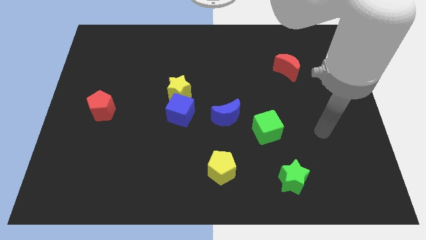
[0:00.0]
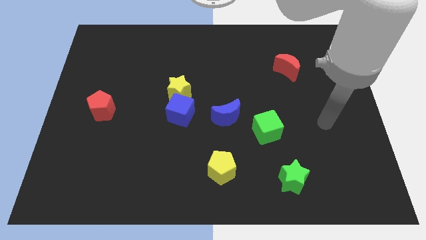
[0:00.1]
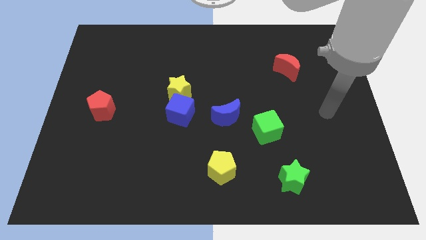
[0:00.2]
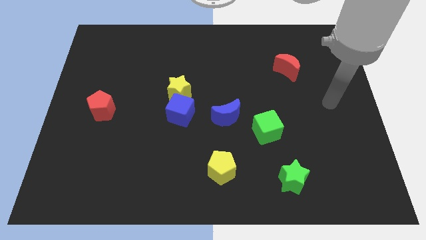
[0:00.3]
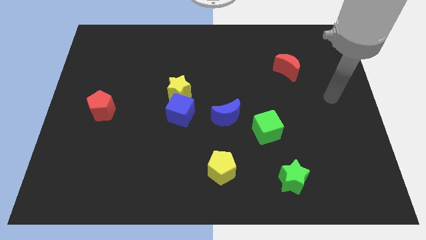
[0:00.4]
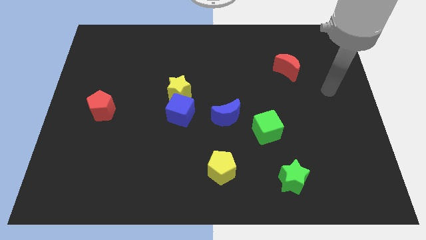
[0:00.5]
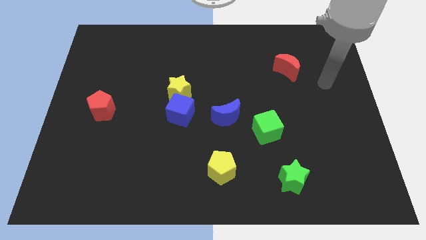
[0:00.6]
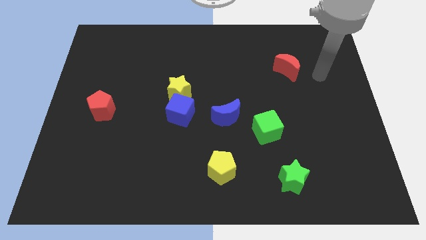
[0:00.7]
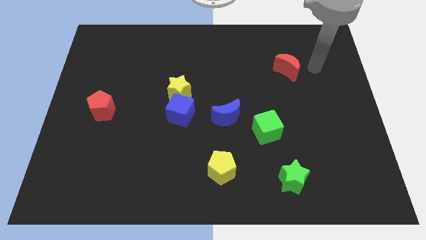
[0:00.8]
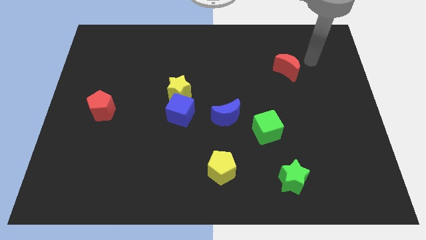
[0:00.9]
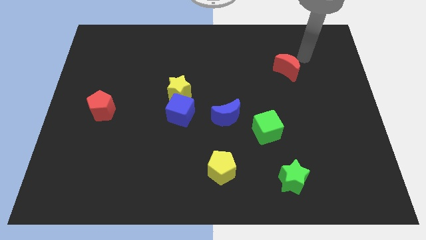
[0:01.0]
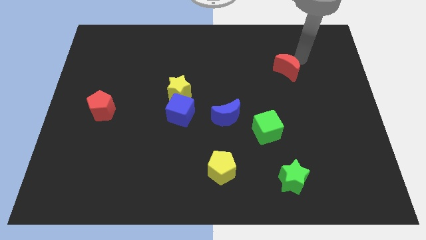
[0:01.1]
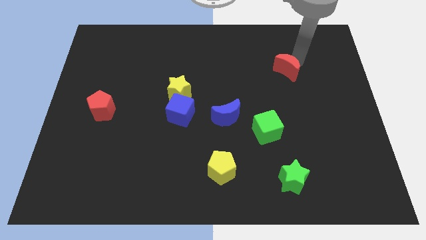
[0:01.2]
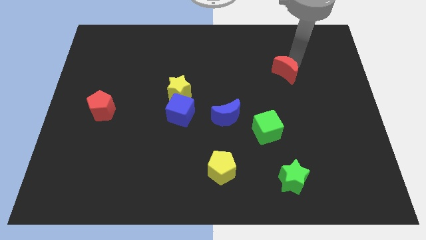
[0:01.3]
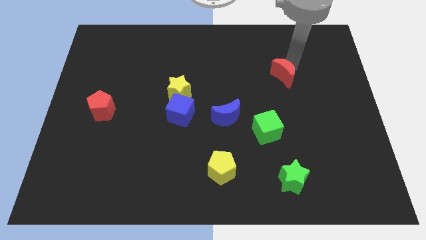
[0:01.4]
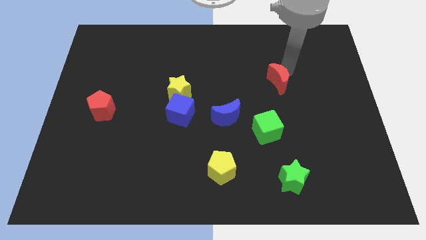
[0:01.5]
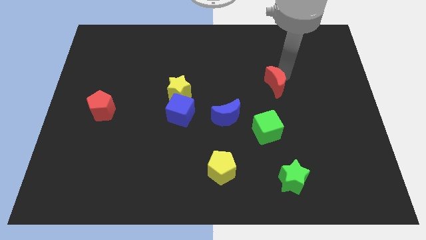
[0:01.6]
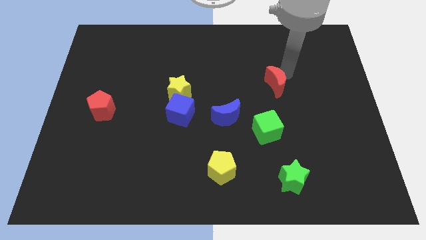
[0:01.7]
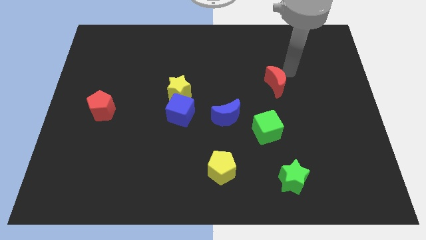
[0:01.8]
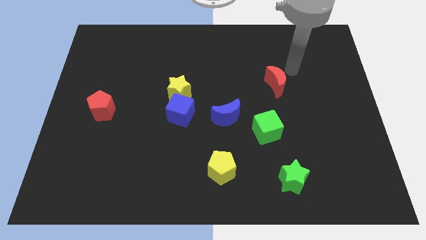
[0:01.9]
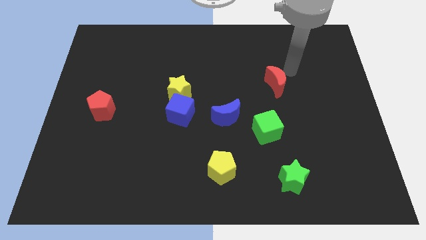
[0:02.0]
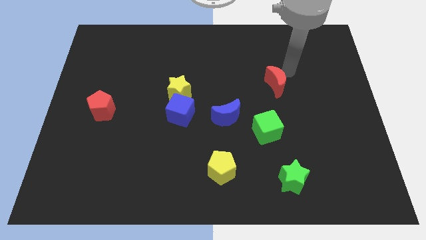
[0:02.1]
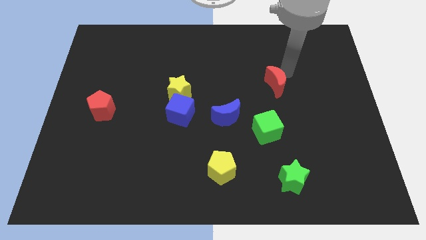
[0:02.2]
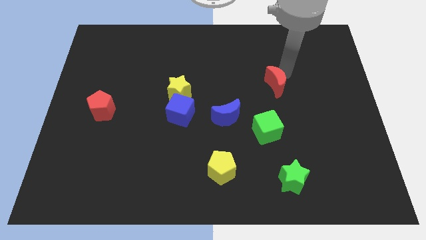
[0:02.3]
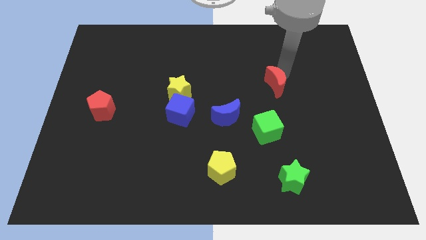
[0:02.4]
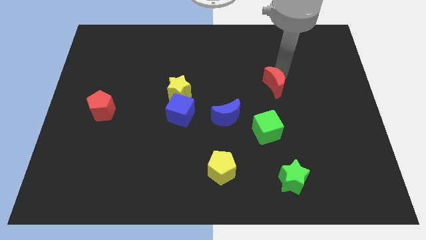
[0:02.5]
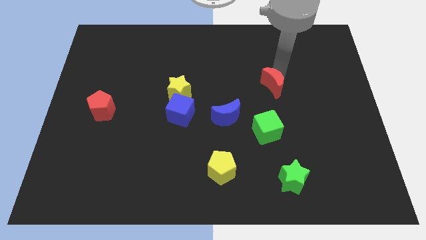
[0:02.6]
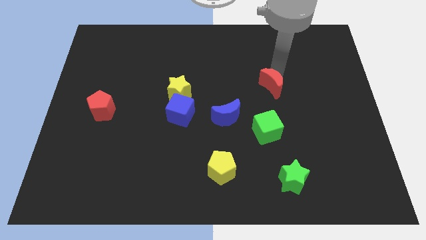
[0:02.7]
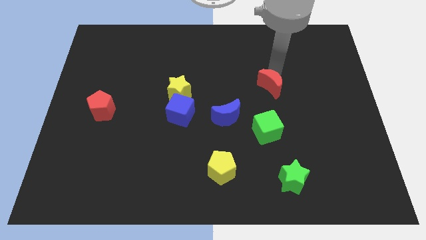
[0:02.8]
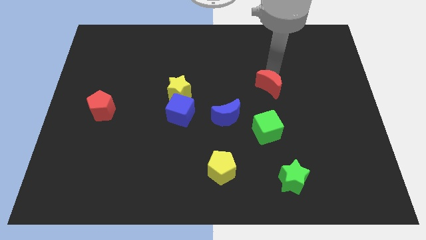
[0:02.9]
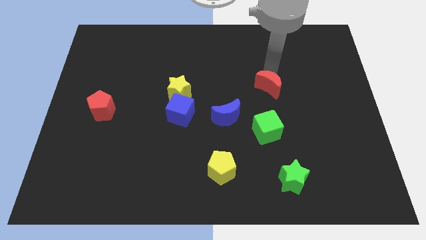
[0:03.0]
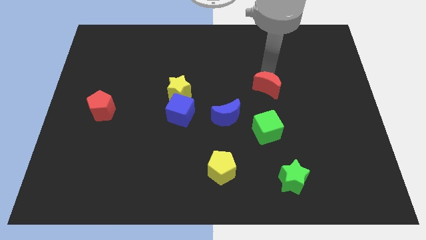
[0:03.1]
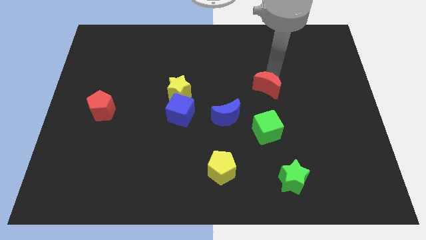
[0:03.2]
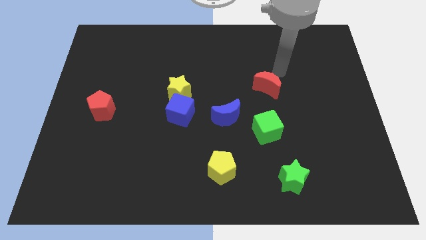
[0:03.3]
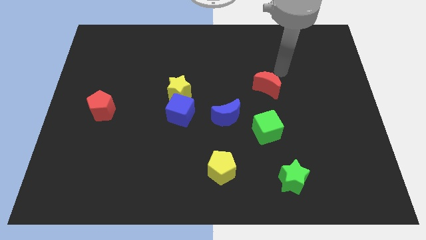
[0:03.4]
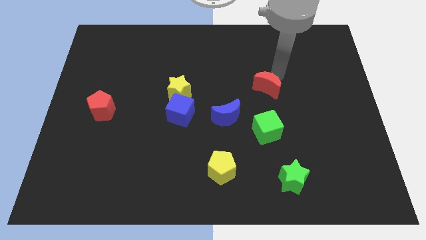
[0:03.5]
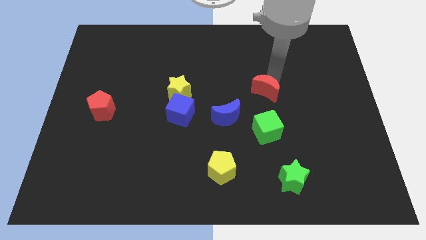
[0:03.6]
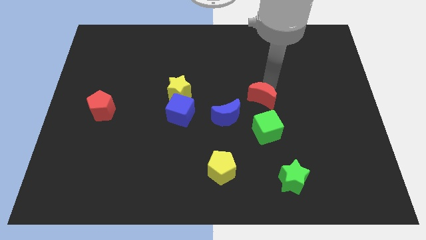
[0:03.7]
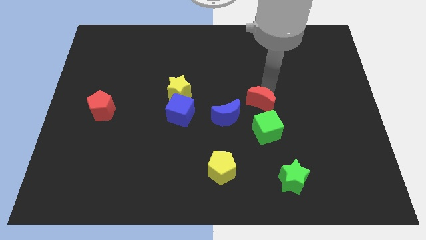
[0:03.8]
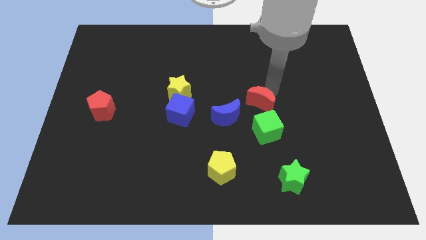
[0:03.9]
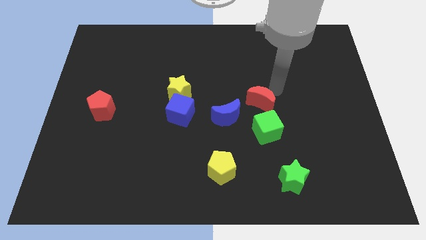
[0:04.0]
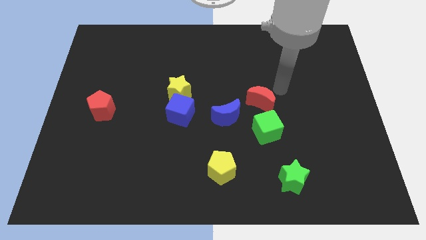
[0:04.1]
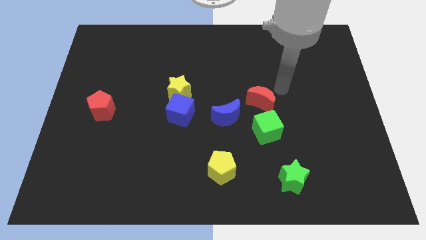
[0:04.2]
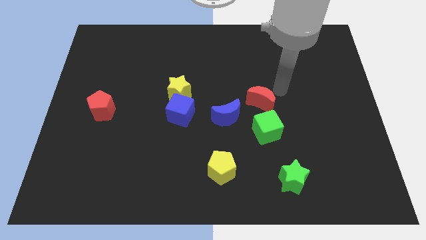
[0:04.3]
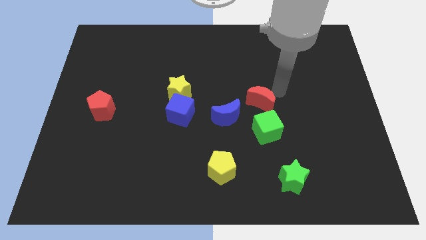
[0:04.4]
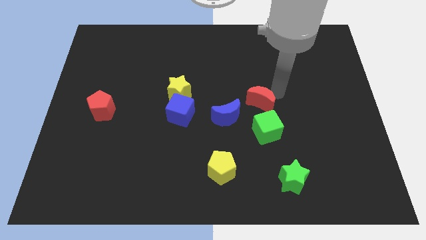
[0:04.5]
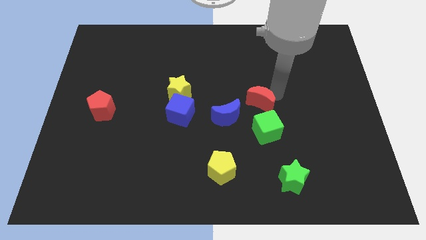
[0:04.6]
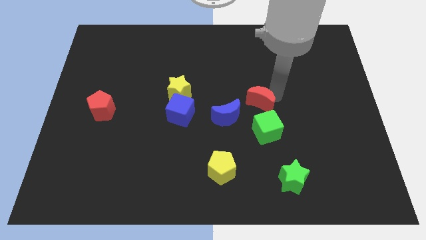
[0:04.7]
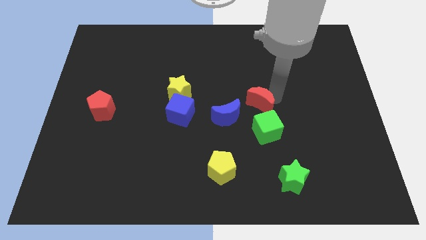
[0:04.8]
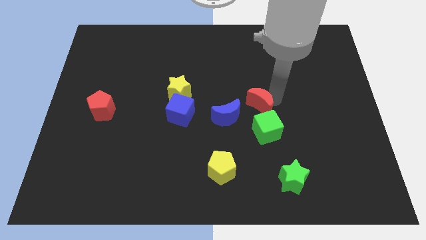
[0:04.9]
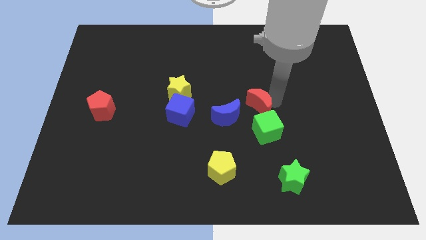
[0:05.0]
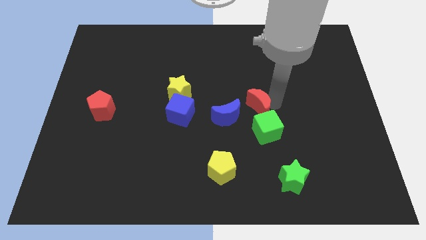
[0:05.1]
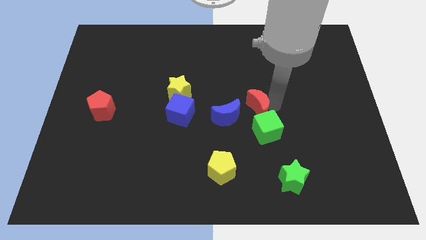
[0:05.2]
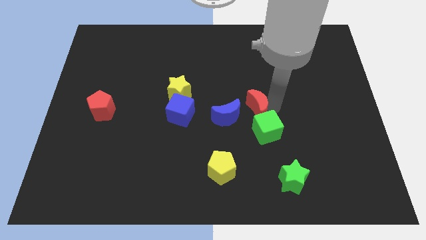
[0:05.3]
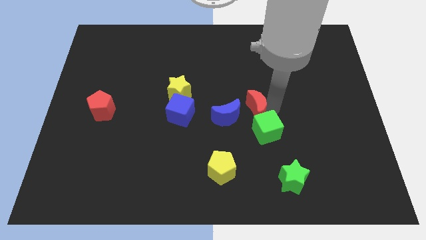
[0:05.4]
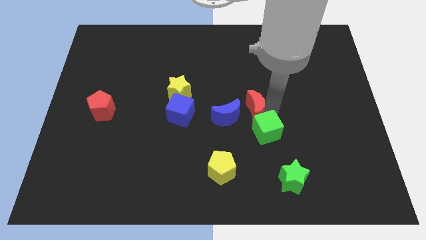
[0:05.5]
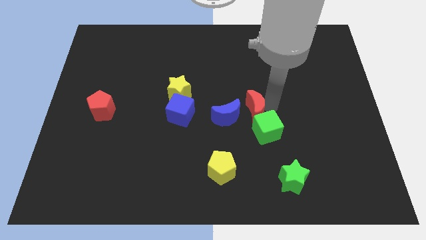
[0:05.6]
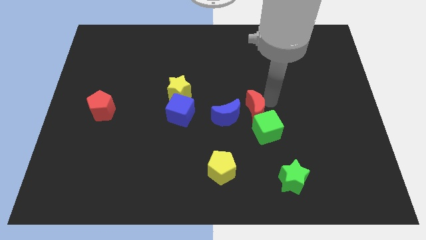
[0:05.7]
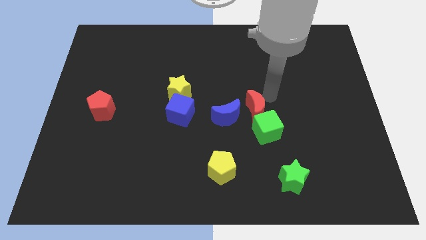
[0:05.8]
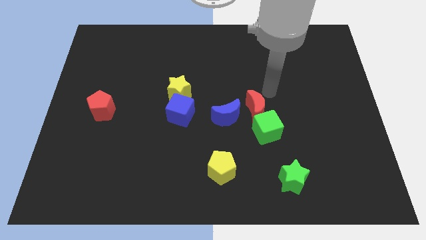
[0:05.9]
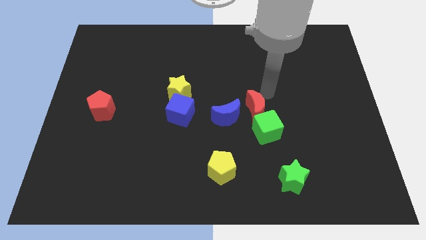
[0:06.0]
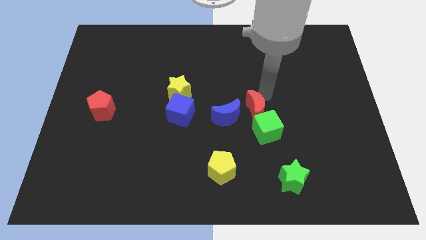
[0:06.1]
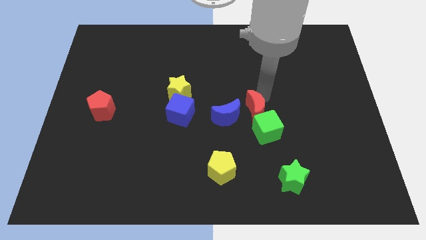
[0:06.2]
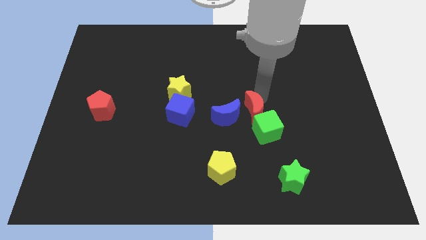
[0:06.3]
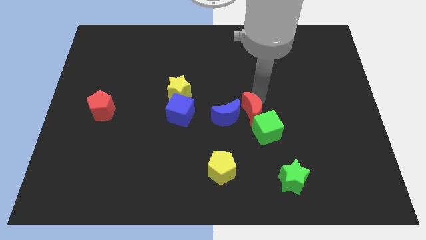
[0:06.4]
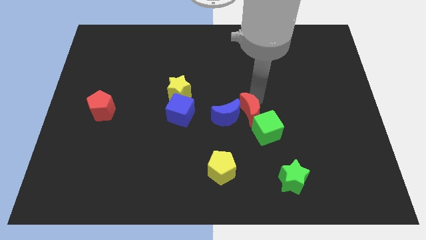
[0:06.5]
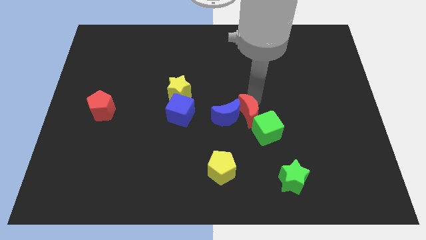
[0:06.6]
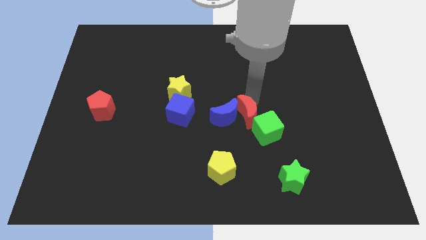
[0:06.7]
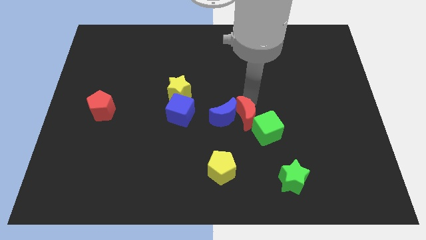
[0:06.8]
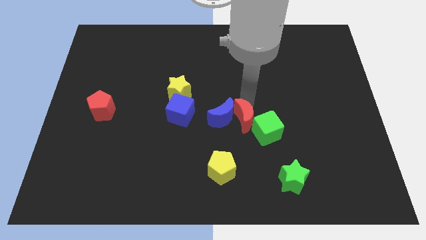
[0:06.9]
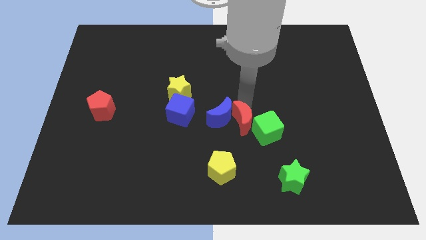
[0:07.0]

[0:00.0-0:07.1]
push the red moon downwards and to the left

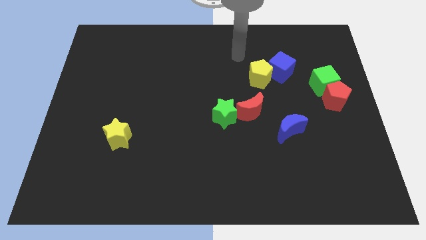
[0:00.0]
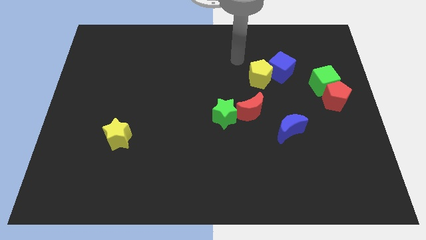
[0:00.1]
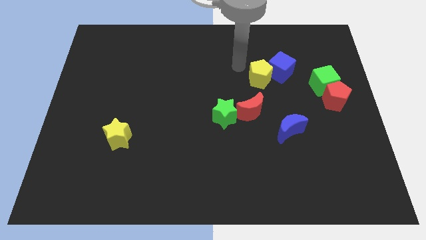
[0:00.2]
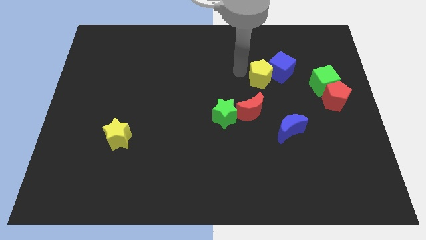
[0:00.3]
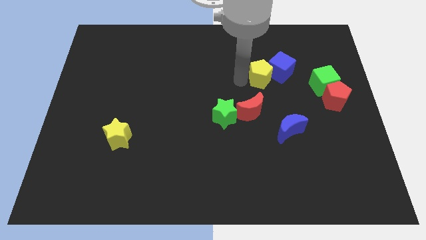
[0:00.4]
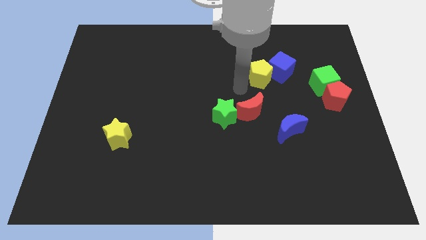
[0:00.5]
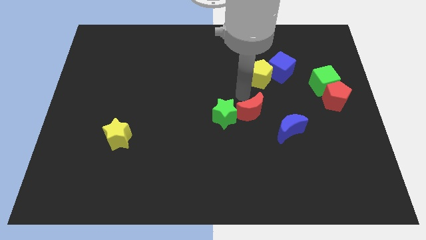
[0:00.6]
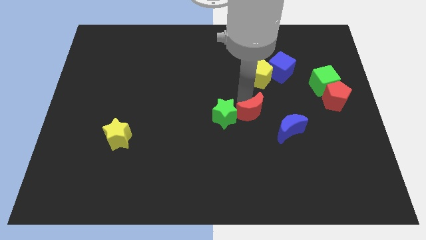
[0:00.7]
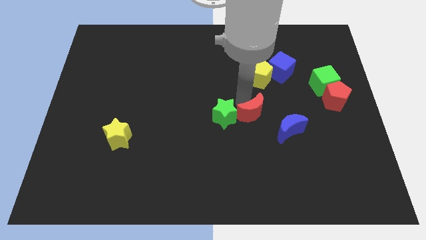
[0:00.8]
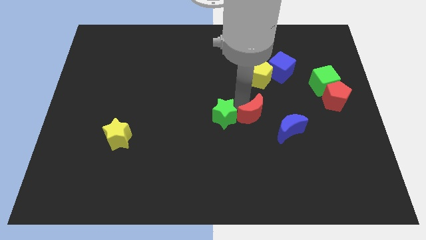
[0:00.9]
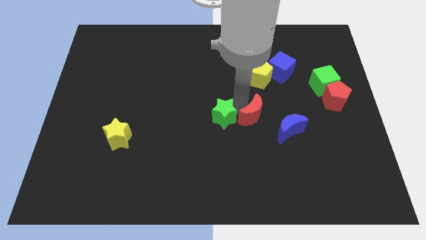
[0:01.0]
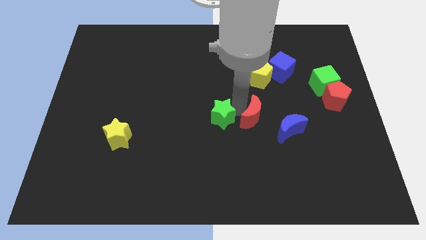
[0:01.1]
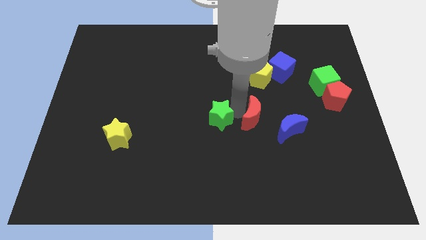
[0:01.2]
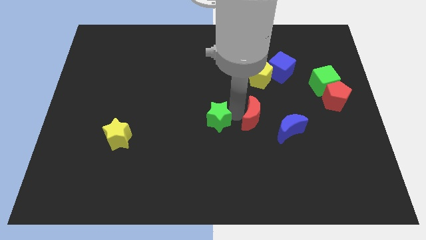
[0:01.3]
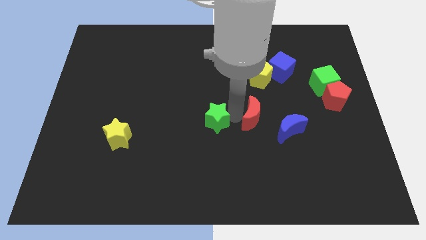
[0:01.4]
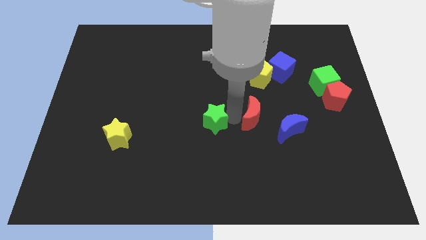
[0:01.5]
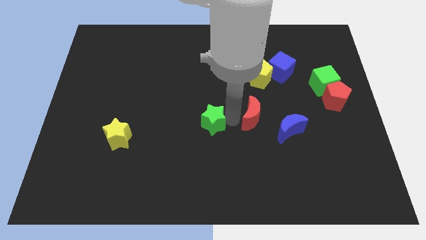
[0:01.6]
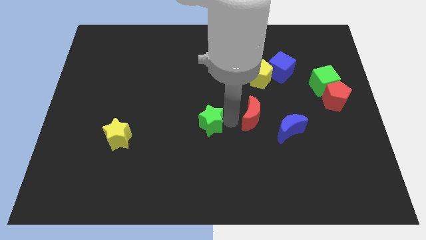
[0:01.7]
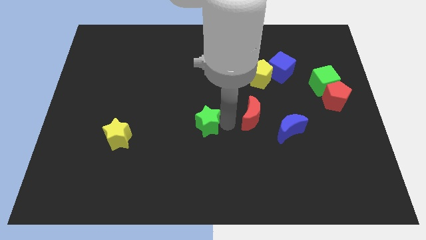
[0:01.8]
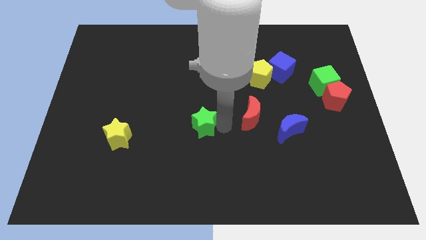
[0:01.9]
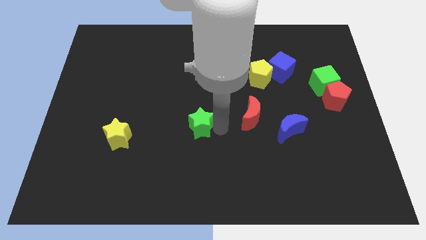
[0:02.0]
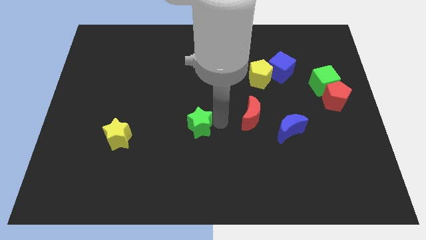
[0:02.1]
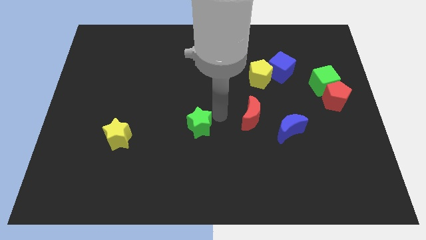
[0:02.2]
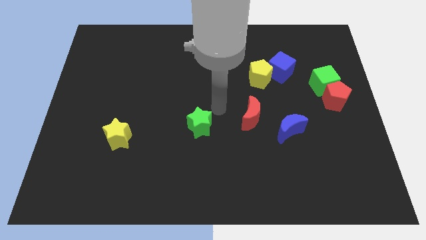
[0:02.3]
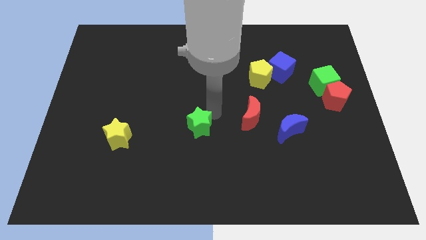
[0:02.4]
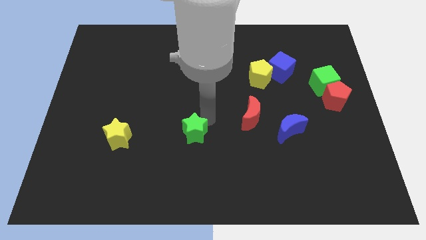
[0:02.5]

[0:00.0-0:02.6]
move the green star a little bit down and to the left diagonally
